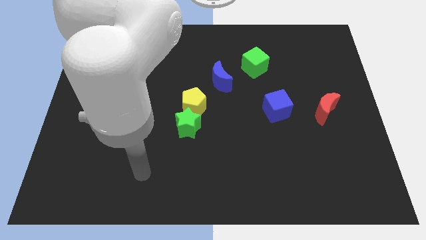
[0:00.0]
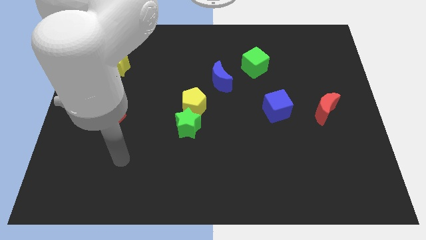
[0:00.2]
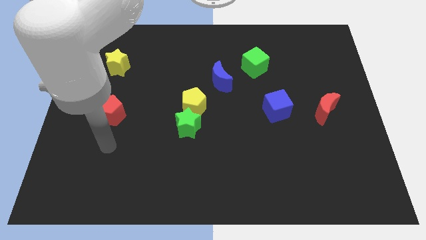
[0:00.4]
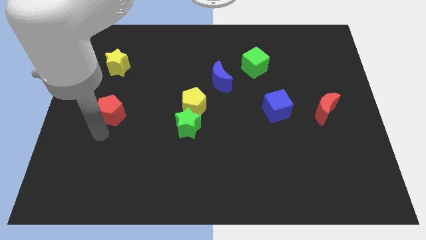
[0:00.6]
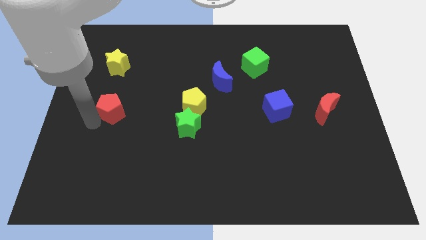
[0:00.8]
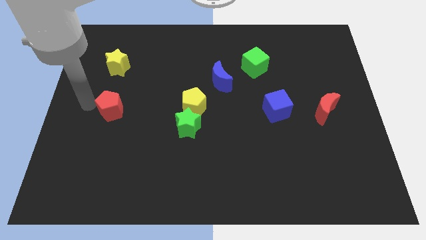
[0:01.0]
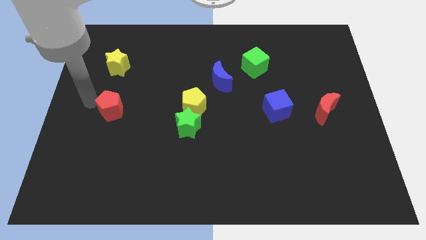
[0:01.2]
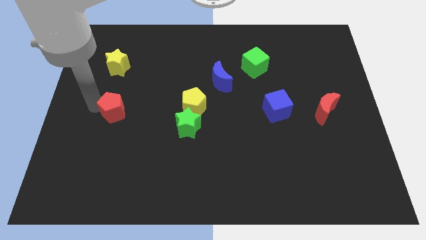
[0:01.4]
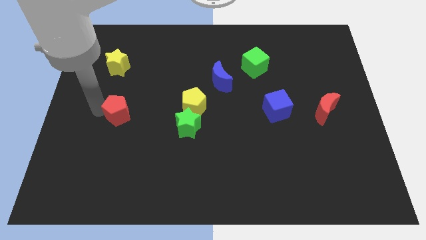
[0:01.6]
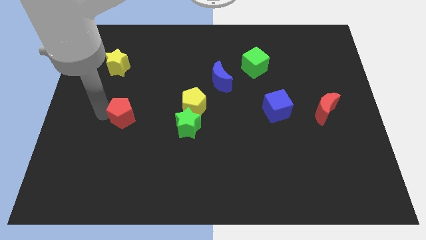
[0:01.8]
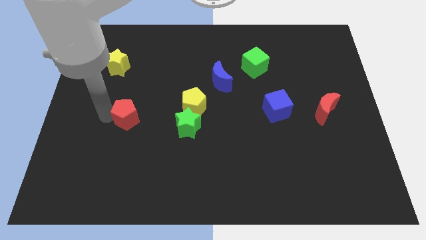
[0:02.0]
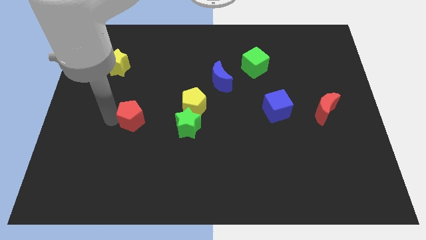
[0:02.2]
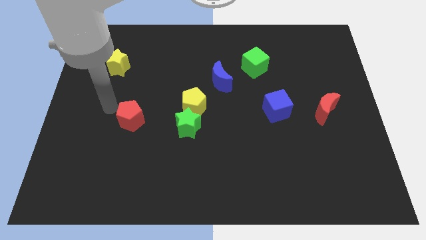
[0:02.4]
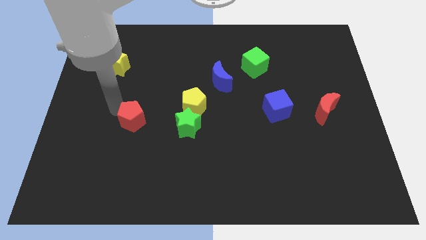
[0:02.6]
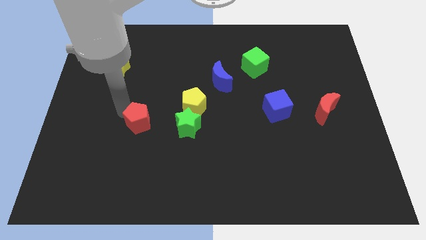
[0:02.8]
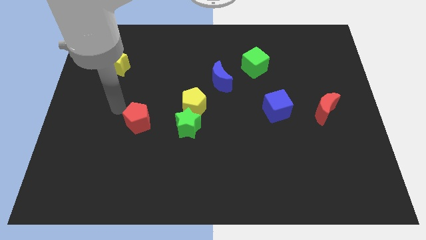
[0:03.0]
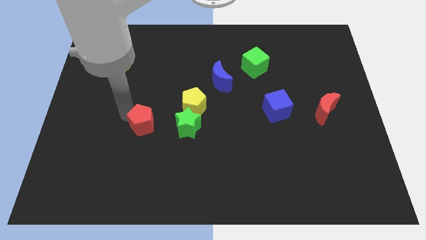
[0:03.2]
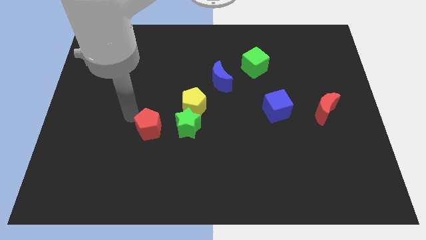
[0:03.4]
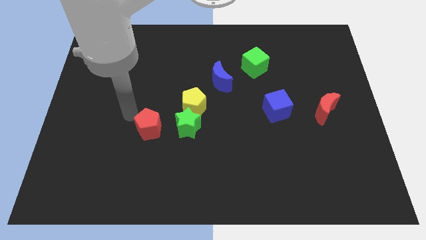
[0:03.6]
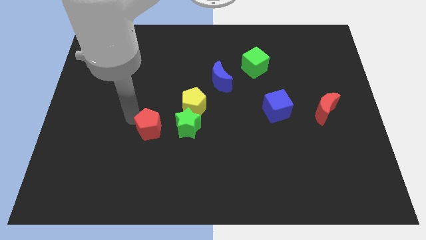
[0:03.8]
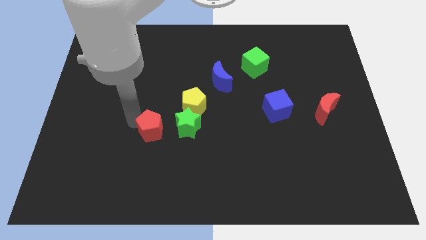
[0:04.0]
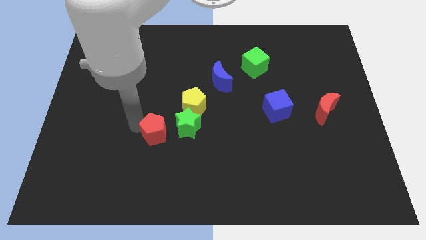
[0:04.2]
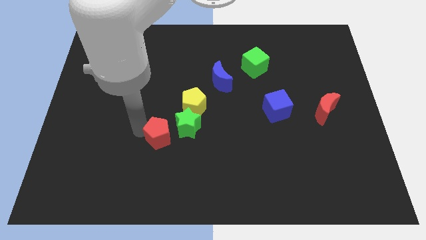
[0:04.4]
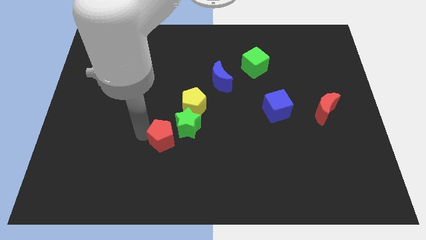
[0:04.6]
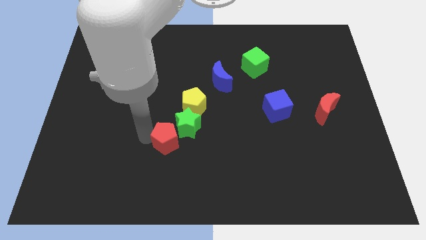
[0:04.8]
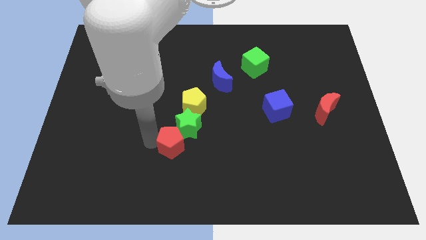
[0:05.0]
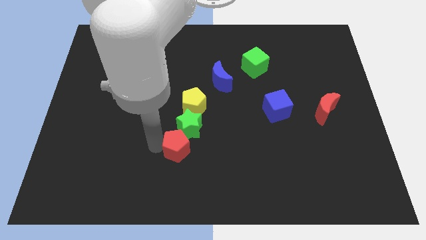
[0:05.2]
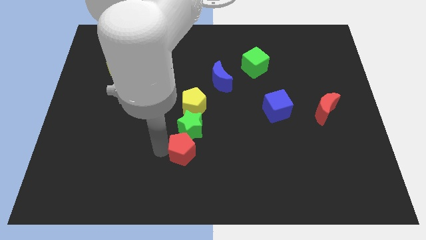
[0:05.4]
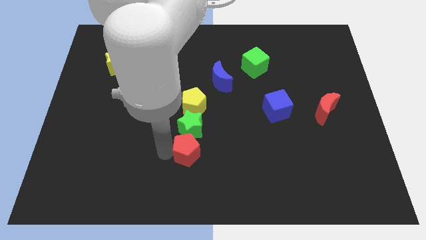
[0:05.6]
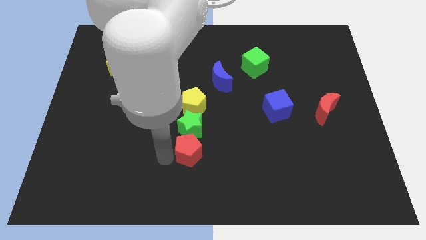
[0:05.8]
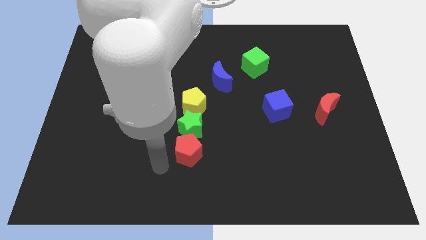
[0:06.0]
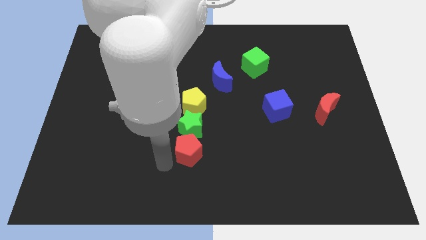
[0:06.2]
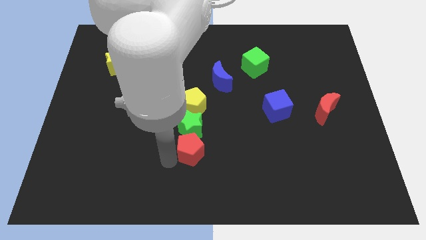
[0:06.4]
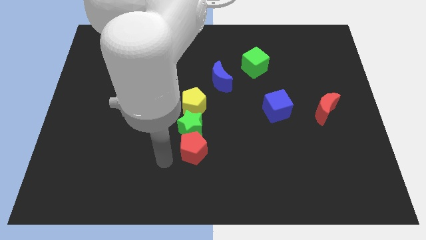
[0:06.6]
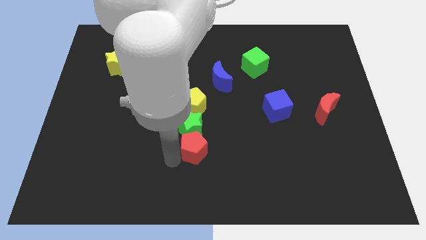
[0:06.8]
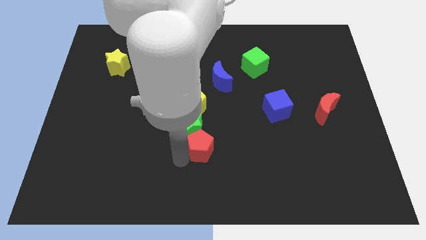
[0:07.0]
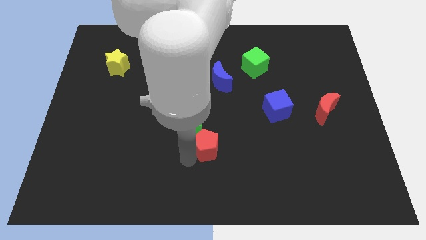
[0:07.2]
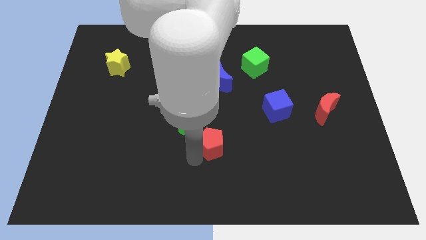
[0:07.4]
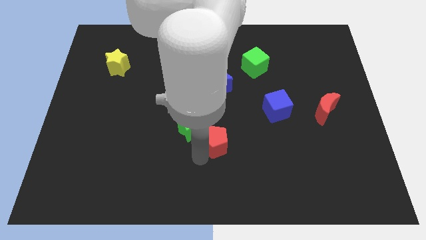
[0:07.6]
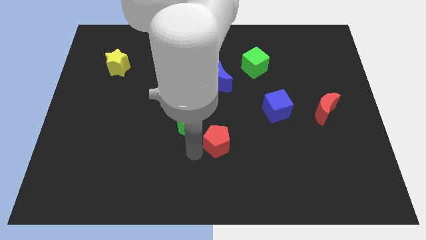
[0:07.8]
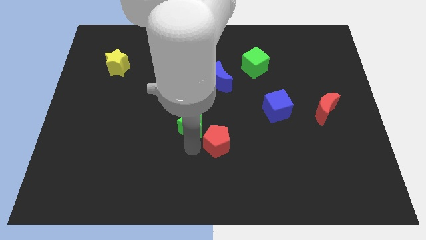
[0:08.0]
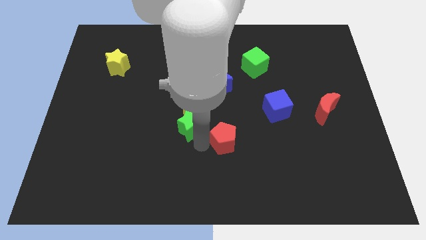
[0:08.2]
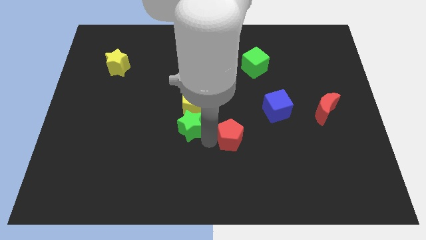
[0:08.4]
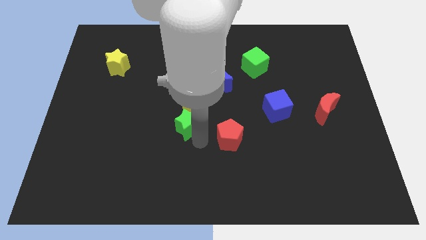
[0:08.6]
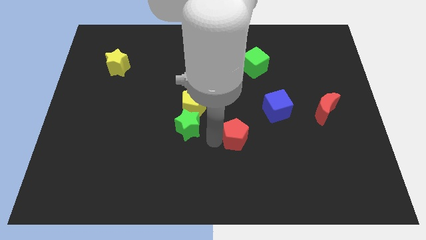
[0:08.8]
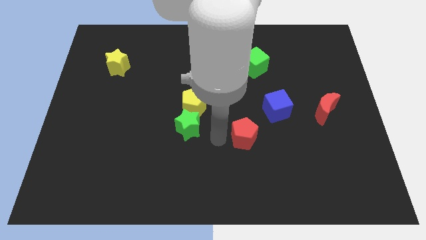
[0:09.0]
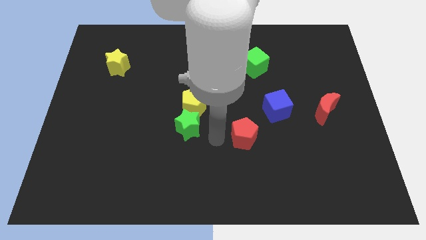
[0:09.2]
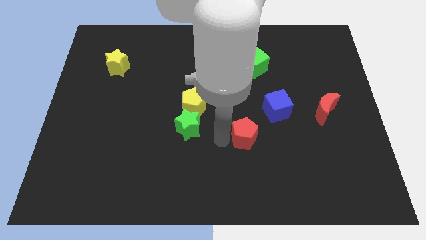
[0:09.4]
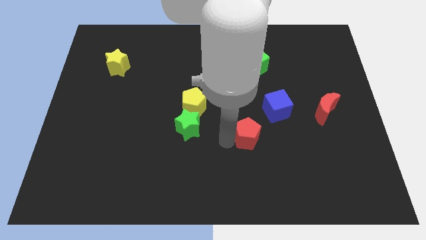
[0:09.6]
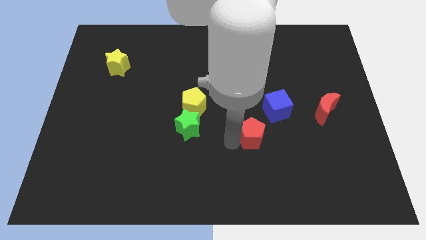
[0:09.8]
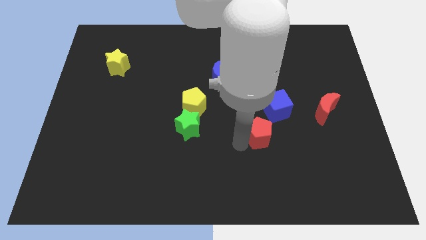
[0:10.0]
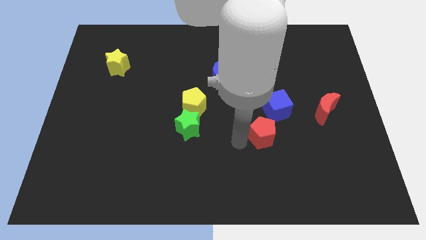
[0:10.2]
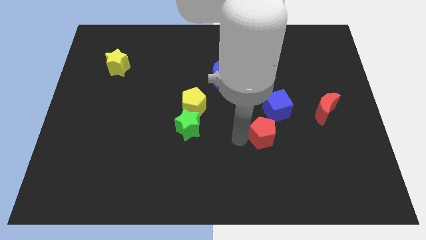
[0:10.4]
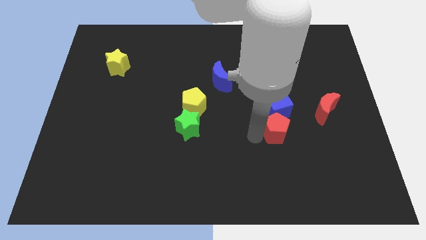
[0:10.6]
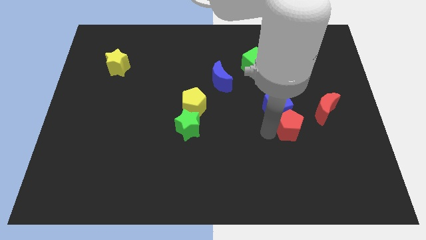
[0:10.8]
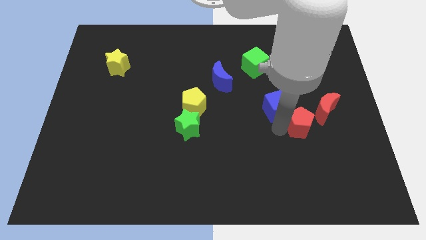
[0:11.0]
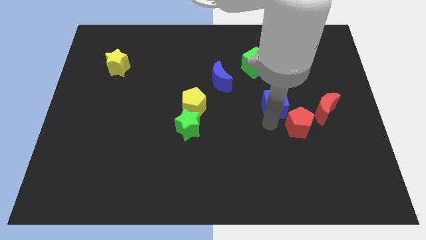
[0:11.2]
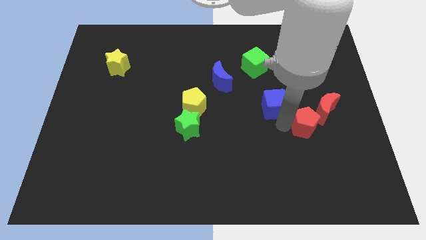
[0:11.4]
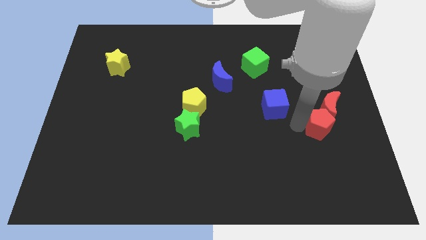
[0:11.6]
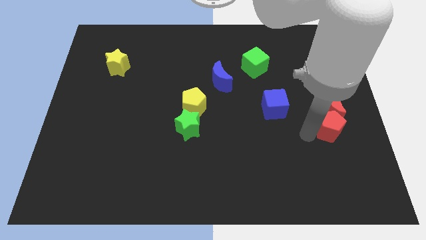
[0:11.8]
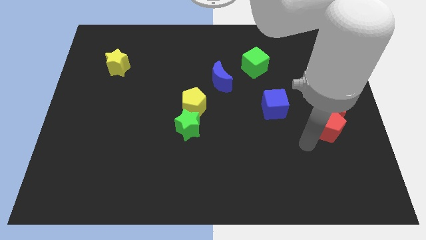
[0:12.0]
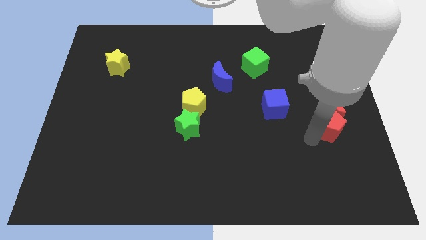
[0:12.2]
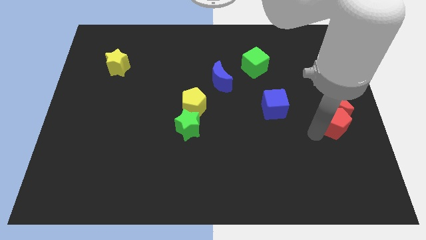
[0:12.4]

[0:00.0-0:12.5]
push the red pentagon to the right side of the board
